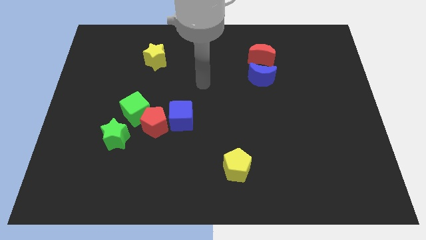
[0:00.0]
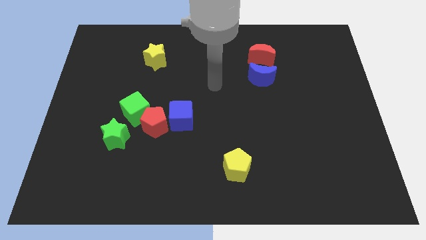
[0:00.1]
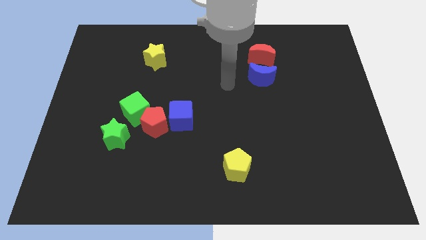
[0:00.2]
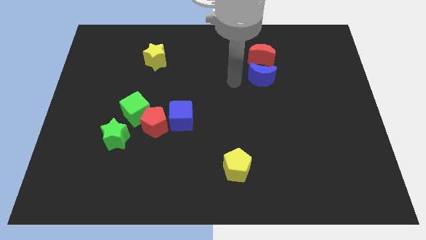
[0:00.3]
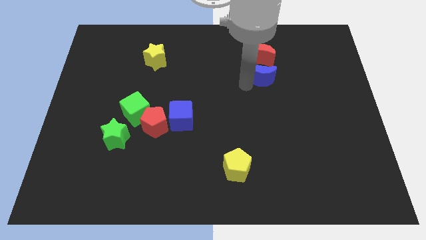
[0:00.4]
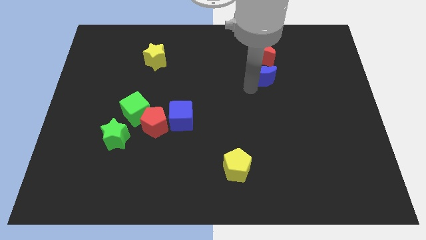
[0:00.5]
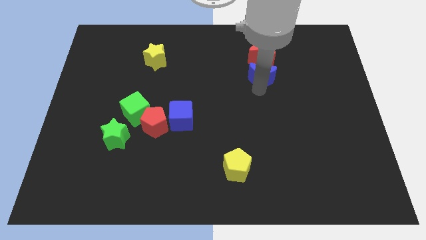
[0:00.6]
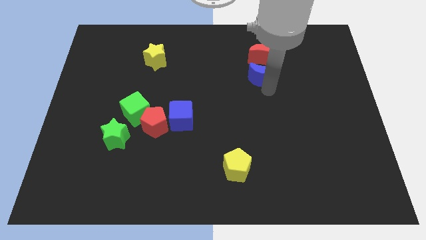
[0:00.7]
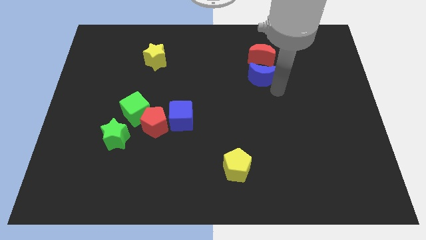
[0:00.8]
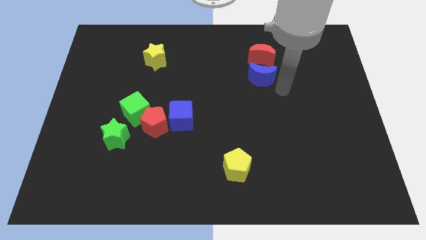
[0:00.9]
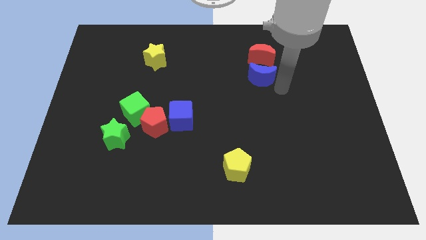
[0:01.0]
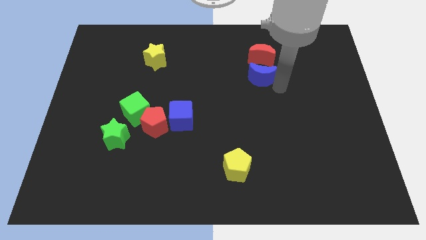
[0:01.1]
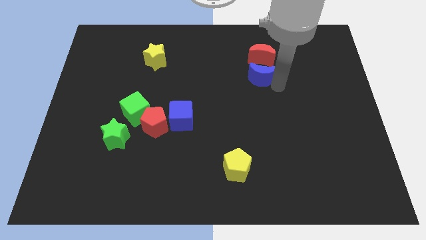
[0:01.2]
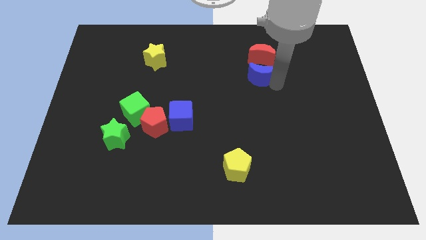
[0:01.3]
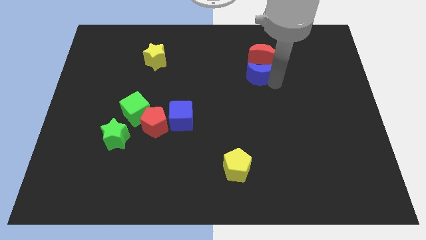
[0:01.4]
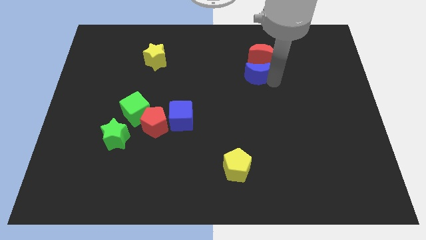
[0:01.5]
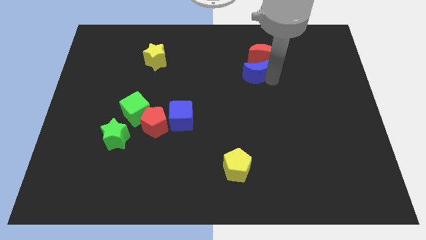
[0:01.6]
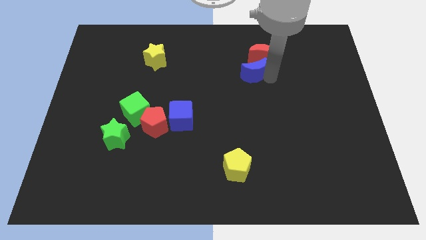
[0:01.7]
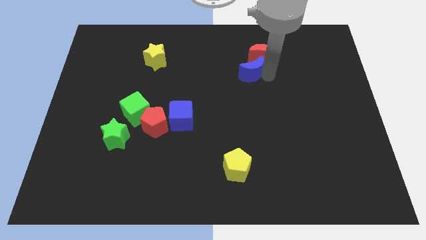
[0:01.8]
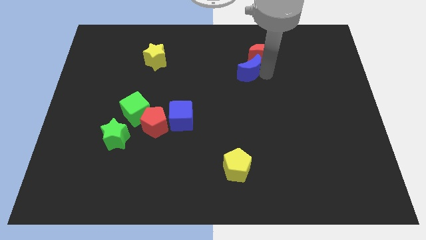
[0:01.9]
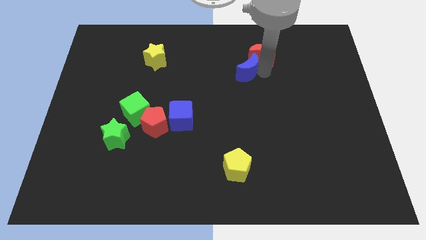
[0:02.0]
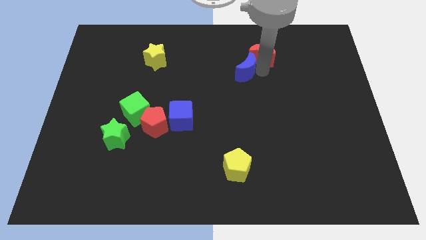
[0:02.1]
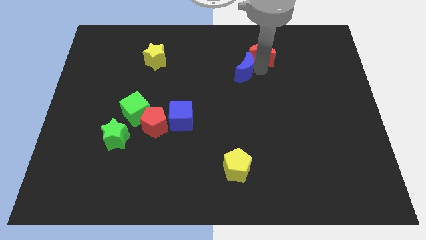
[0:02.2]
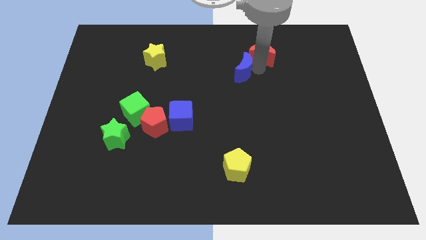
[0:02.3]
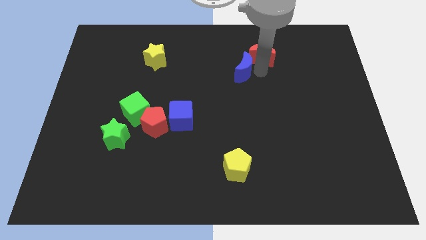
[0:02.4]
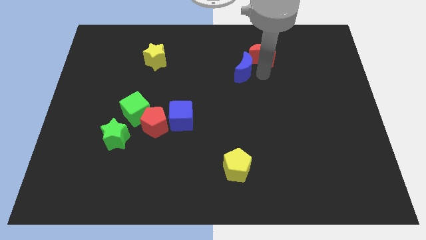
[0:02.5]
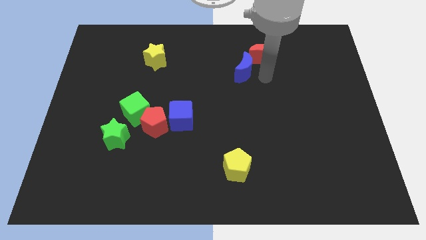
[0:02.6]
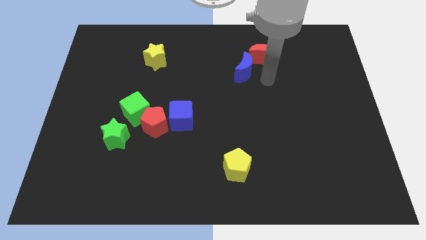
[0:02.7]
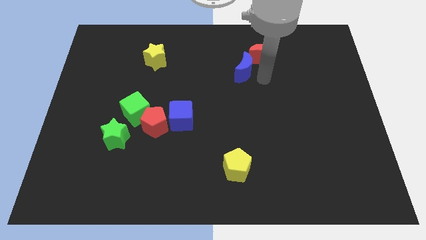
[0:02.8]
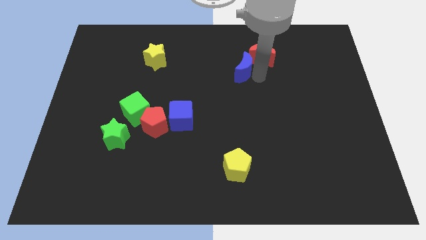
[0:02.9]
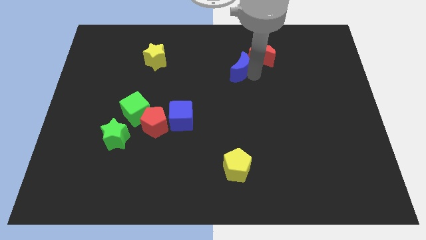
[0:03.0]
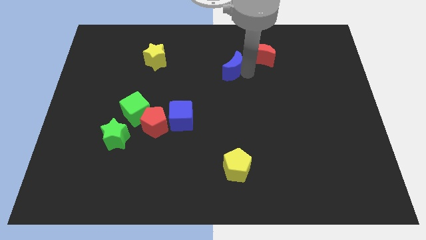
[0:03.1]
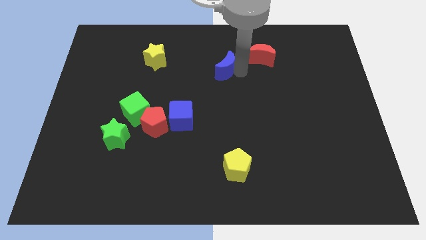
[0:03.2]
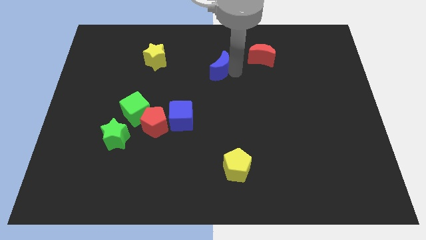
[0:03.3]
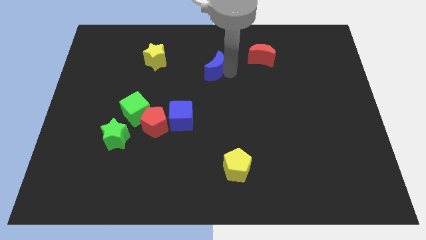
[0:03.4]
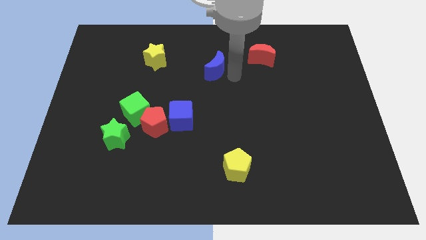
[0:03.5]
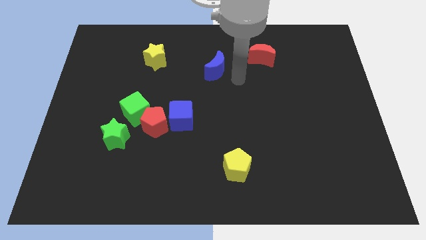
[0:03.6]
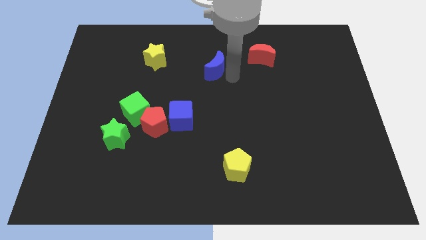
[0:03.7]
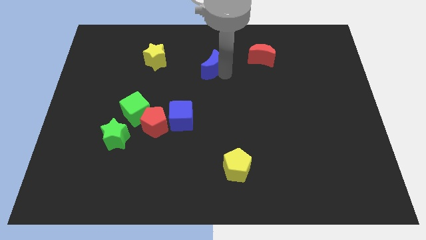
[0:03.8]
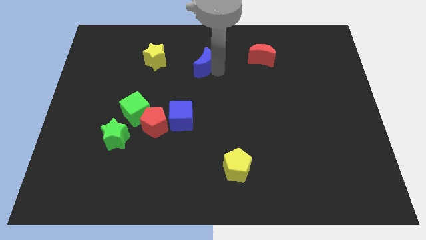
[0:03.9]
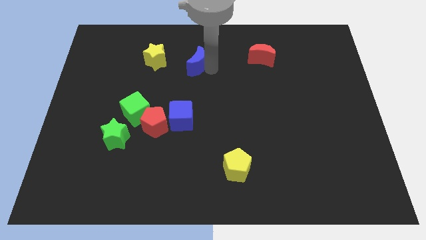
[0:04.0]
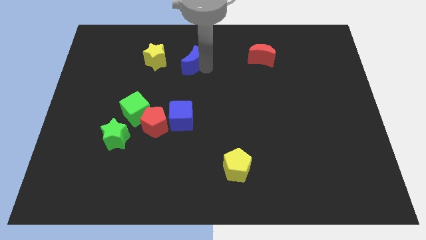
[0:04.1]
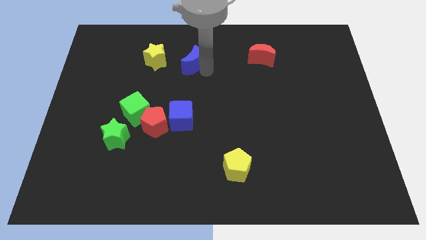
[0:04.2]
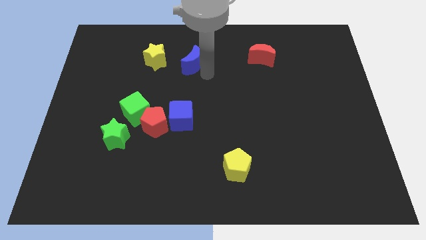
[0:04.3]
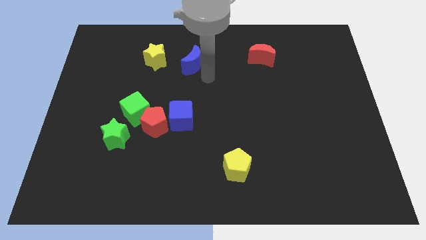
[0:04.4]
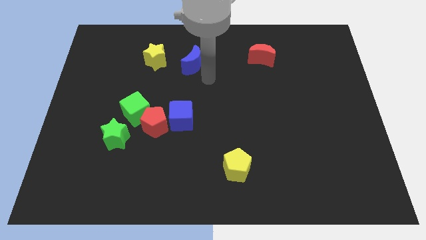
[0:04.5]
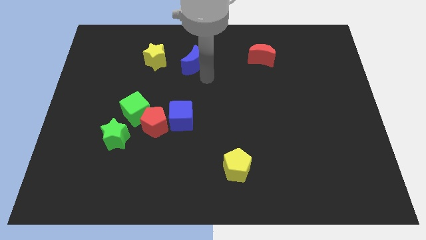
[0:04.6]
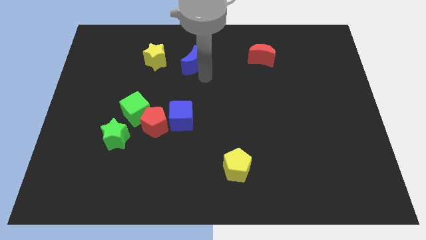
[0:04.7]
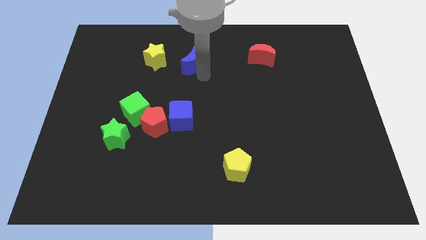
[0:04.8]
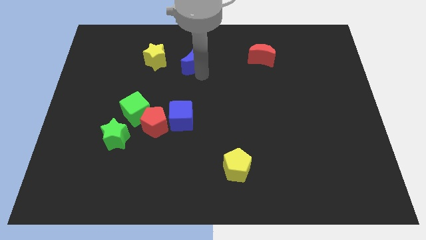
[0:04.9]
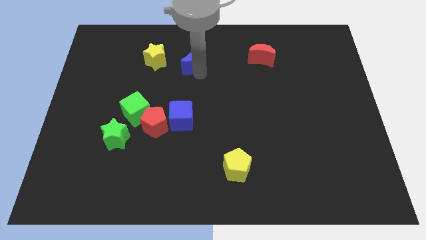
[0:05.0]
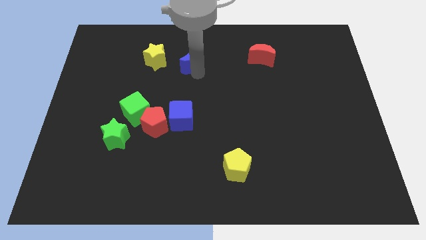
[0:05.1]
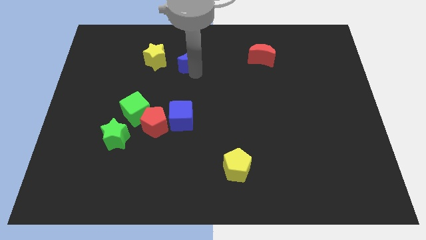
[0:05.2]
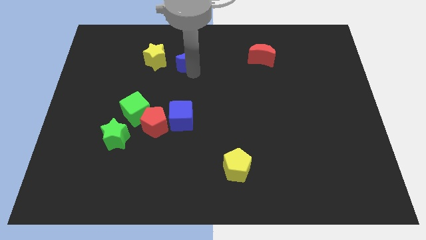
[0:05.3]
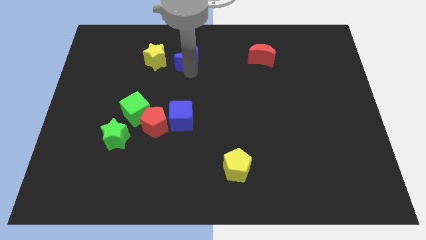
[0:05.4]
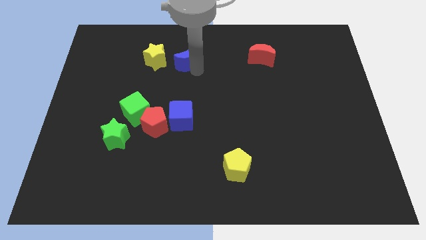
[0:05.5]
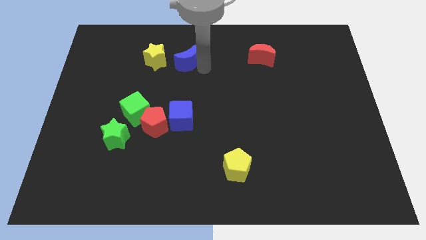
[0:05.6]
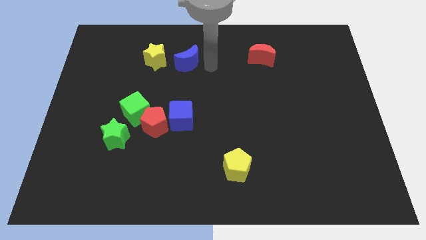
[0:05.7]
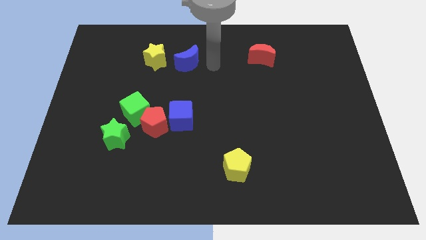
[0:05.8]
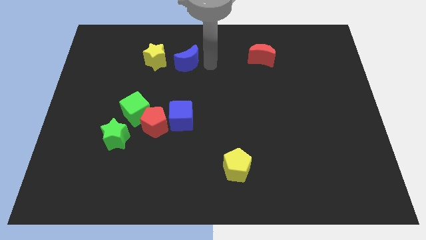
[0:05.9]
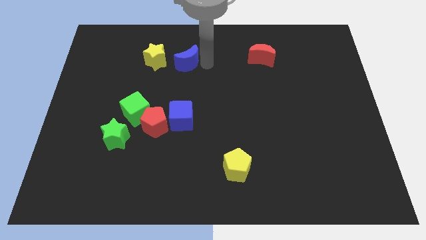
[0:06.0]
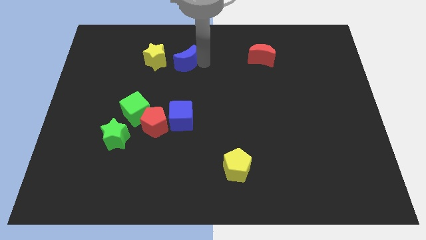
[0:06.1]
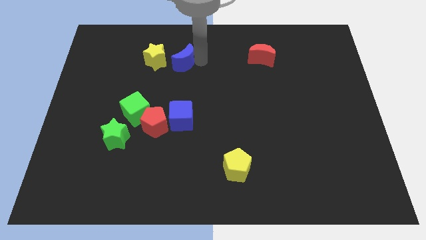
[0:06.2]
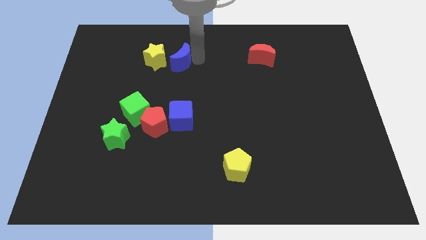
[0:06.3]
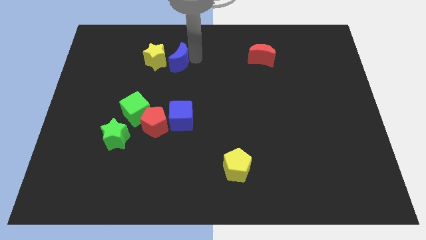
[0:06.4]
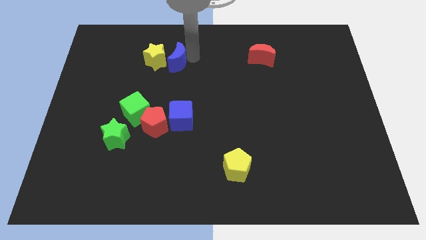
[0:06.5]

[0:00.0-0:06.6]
put the blue moon close to the yellow star

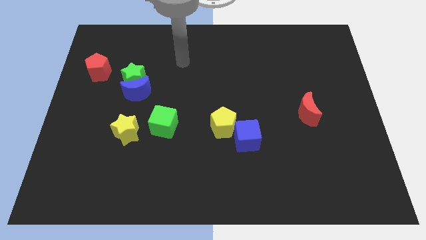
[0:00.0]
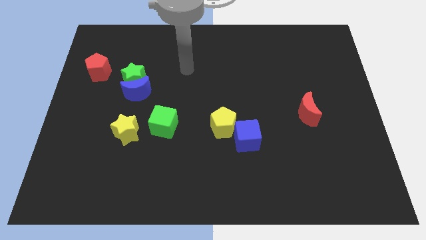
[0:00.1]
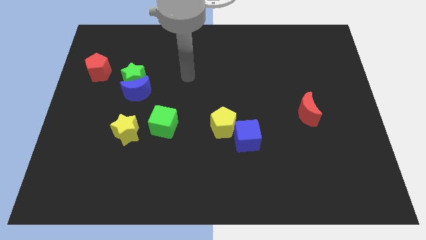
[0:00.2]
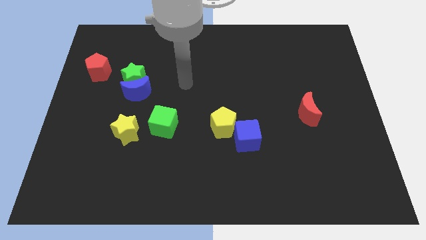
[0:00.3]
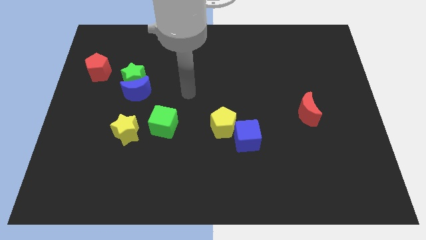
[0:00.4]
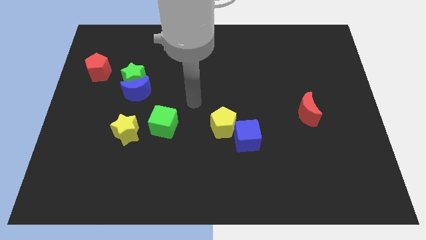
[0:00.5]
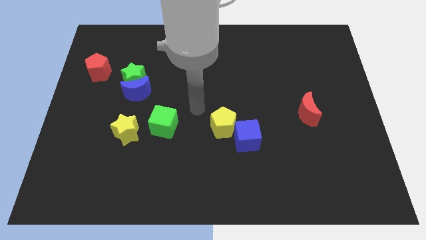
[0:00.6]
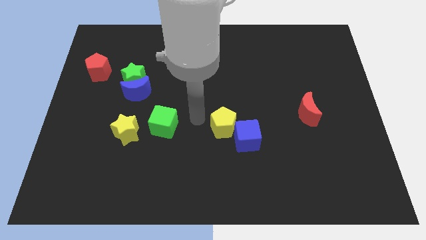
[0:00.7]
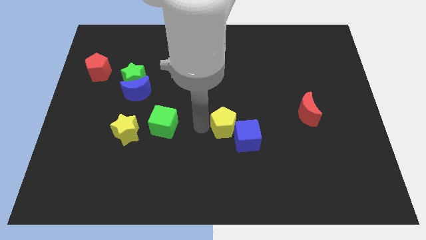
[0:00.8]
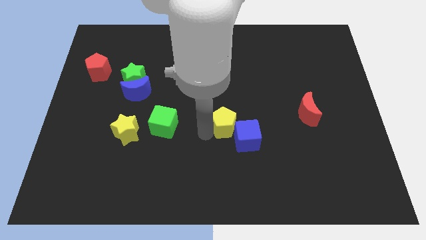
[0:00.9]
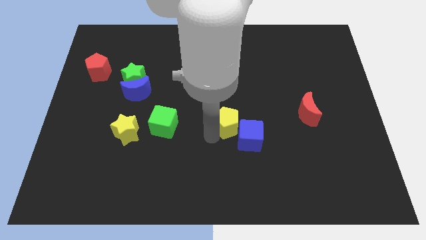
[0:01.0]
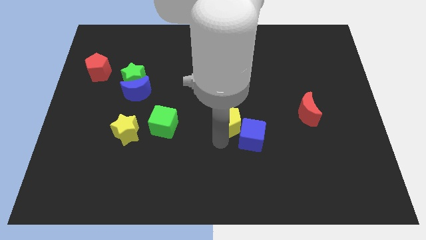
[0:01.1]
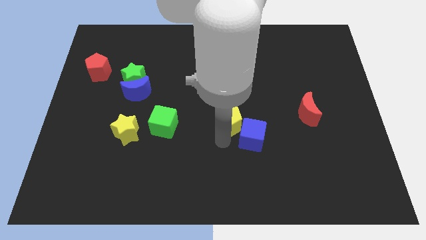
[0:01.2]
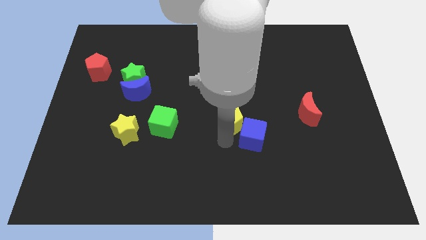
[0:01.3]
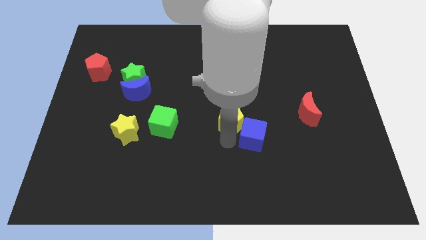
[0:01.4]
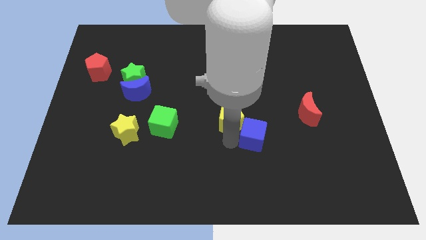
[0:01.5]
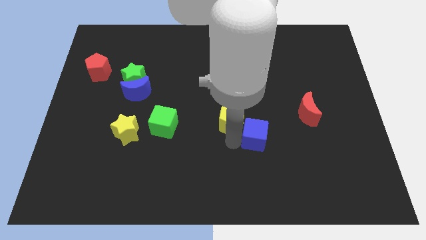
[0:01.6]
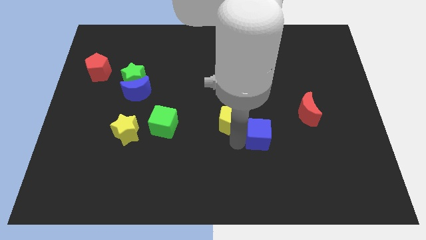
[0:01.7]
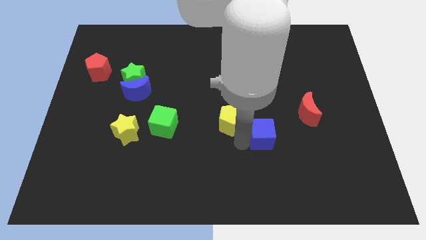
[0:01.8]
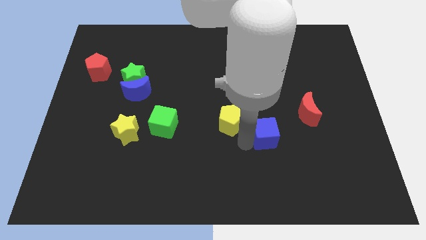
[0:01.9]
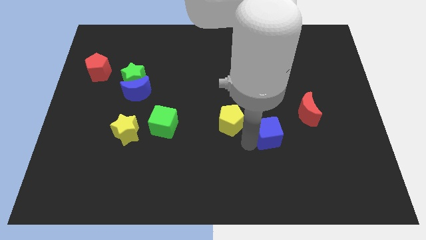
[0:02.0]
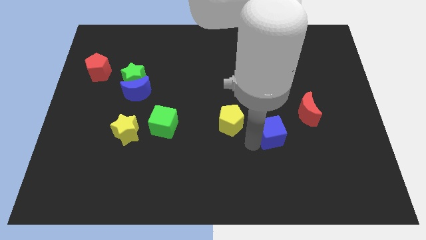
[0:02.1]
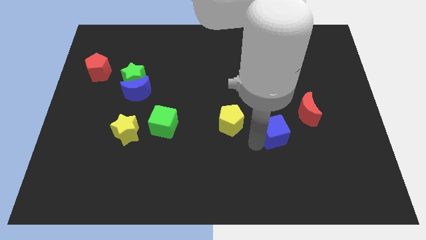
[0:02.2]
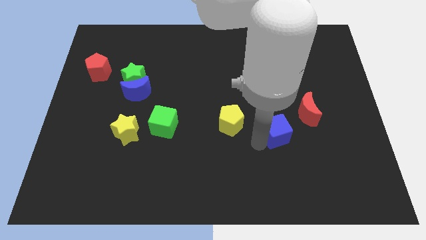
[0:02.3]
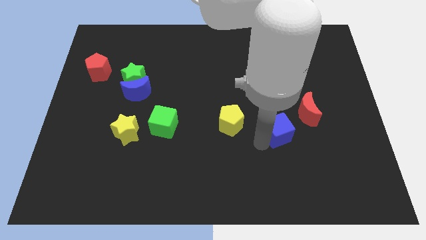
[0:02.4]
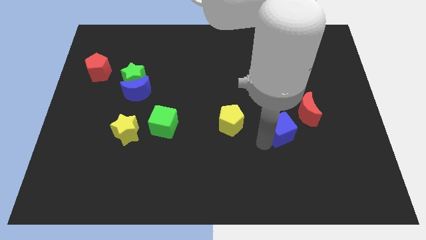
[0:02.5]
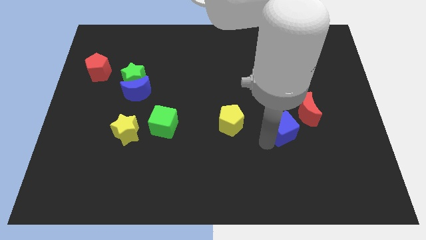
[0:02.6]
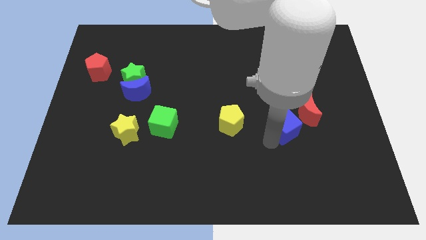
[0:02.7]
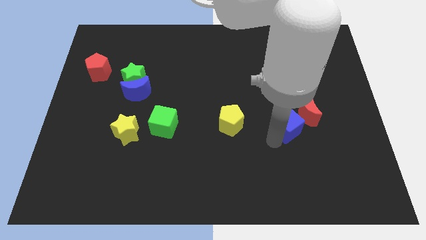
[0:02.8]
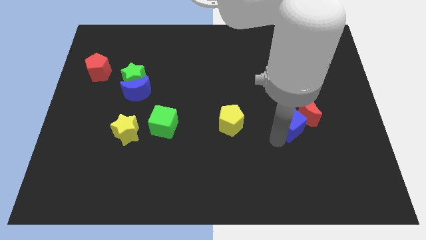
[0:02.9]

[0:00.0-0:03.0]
push the blue cube close to the red moon
